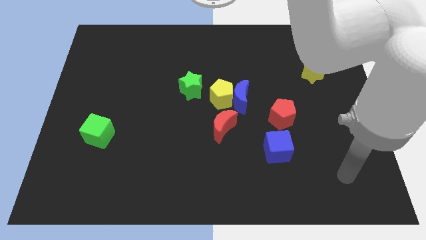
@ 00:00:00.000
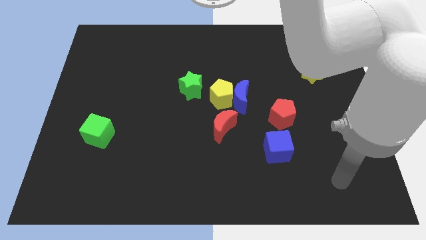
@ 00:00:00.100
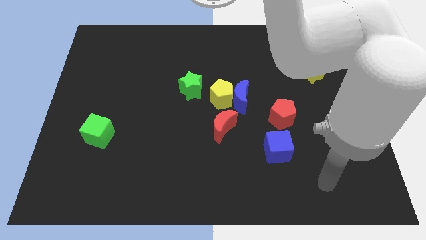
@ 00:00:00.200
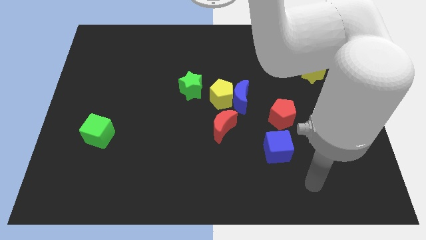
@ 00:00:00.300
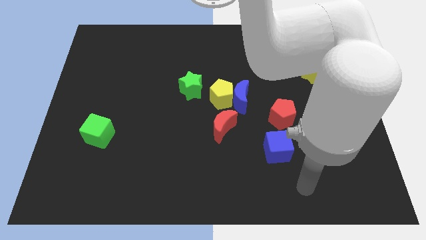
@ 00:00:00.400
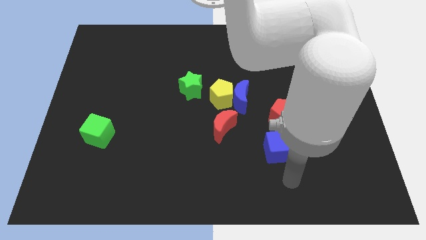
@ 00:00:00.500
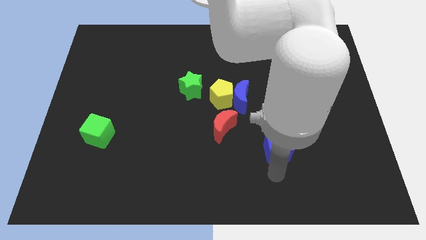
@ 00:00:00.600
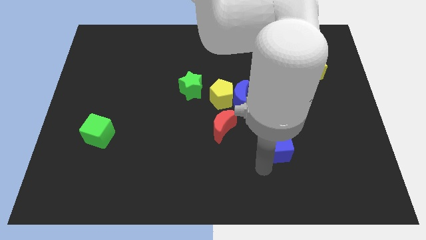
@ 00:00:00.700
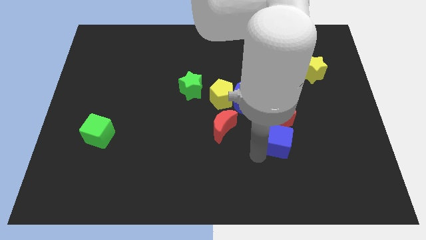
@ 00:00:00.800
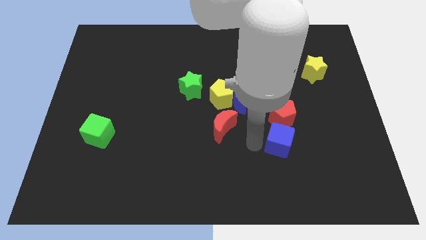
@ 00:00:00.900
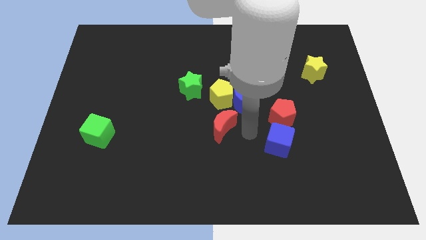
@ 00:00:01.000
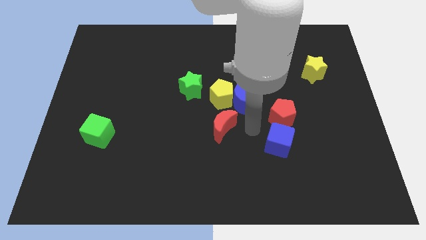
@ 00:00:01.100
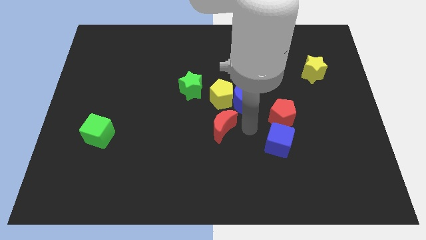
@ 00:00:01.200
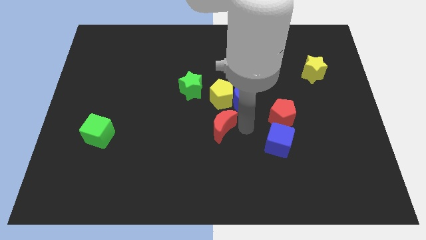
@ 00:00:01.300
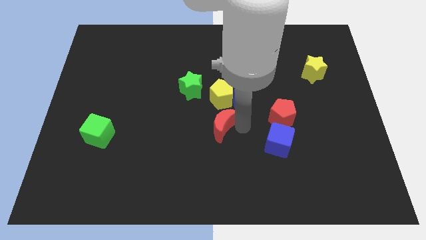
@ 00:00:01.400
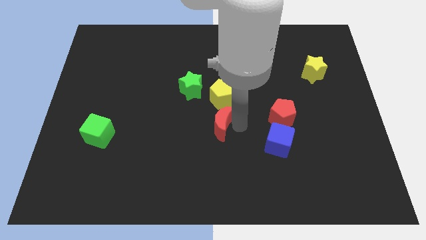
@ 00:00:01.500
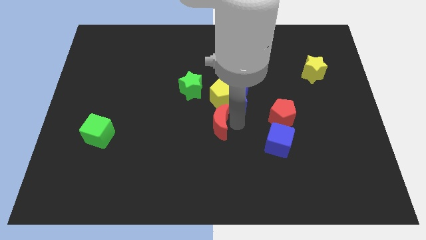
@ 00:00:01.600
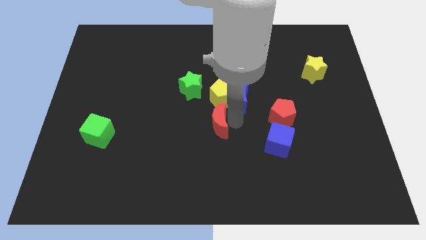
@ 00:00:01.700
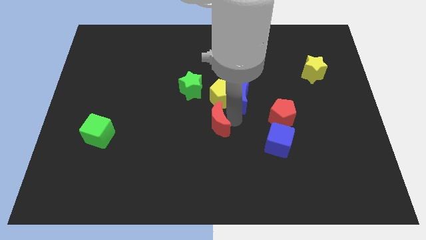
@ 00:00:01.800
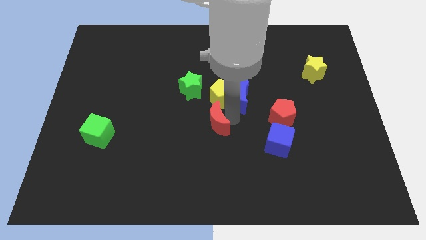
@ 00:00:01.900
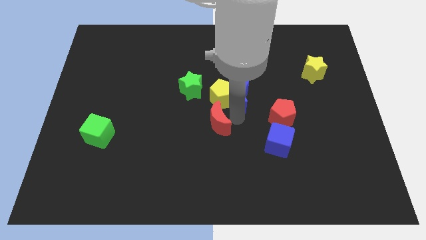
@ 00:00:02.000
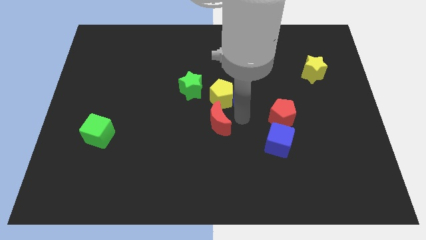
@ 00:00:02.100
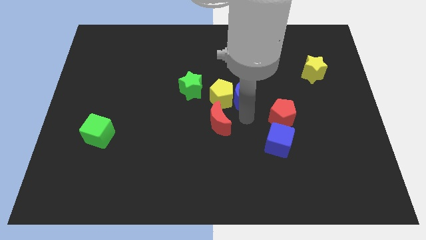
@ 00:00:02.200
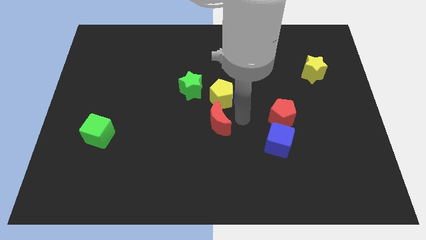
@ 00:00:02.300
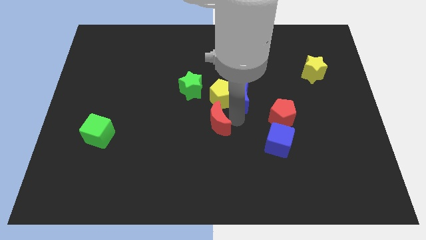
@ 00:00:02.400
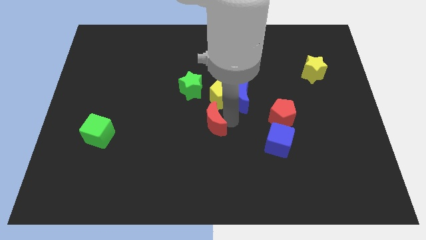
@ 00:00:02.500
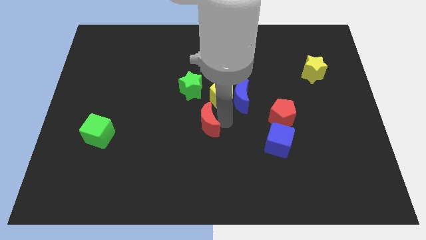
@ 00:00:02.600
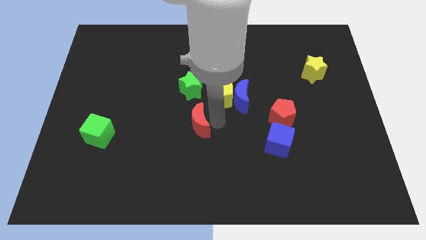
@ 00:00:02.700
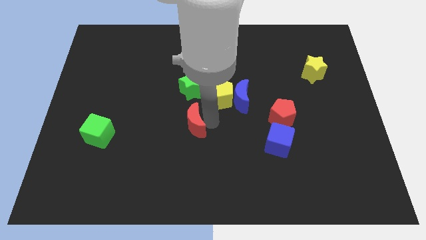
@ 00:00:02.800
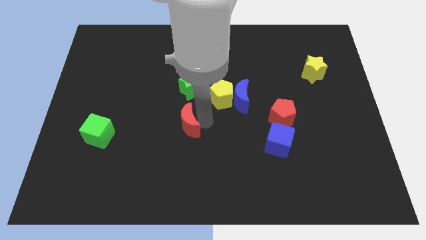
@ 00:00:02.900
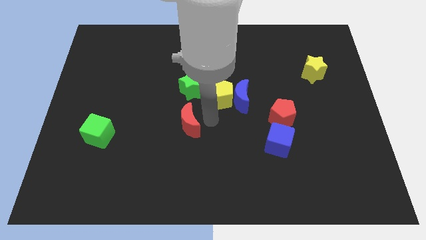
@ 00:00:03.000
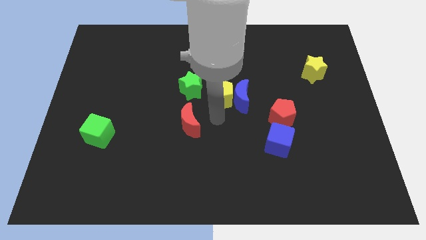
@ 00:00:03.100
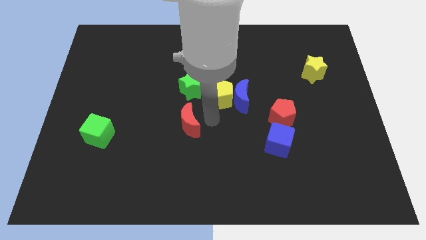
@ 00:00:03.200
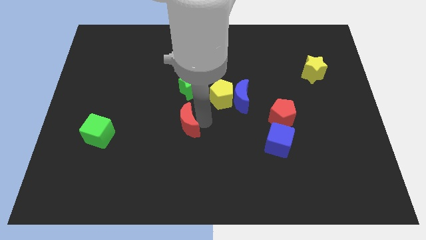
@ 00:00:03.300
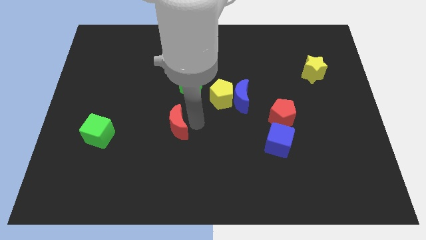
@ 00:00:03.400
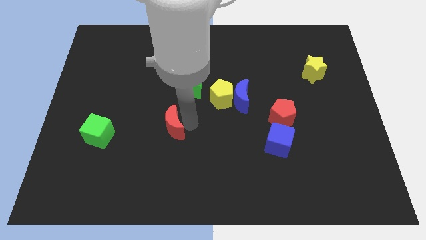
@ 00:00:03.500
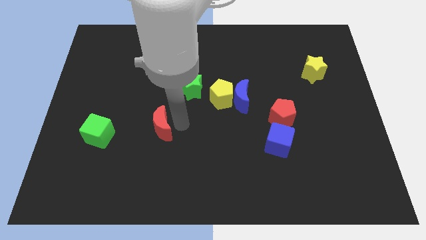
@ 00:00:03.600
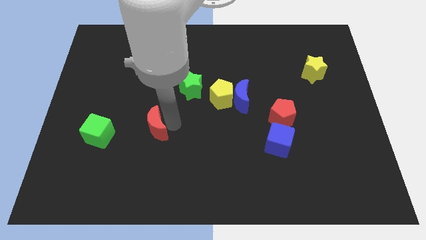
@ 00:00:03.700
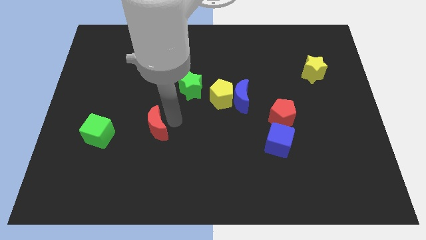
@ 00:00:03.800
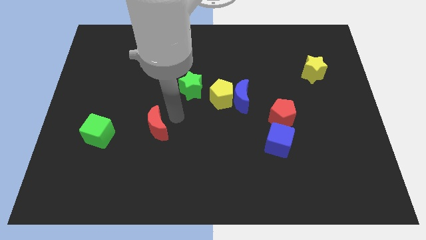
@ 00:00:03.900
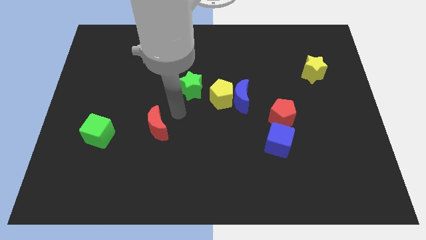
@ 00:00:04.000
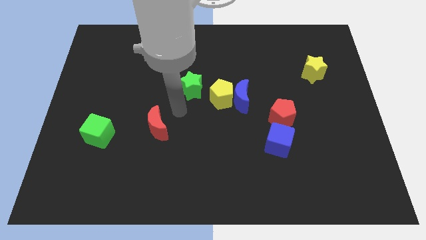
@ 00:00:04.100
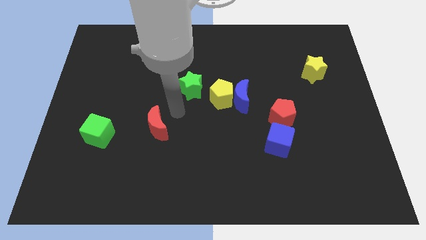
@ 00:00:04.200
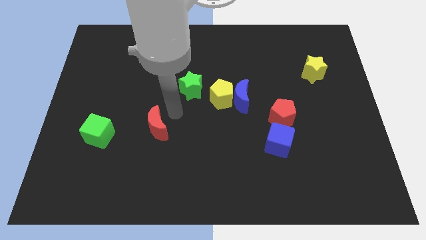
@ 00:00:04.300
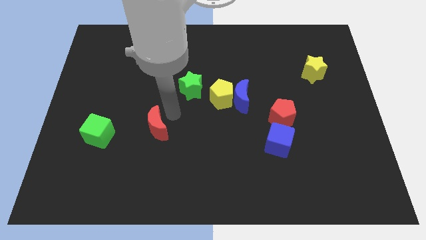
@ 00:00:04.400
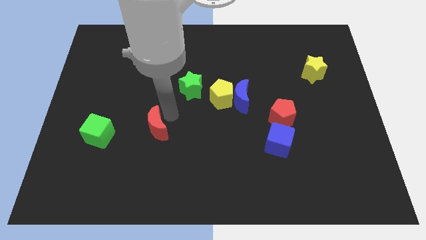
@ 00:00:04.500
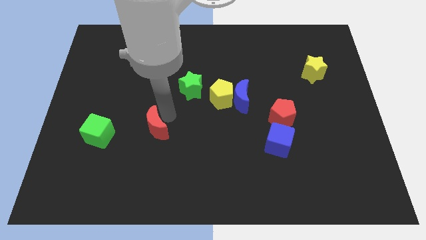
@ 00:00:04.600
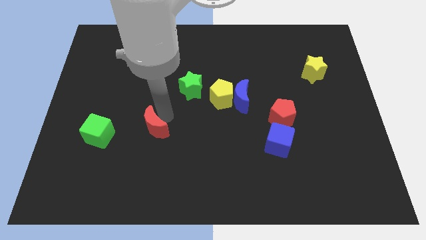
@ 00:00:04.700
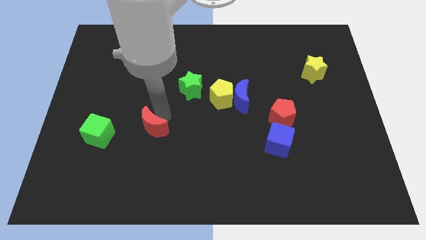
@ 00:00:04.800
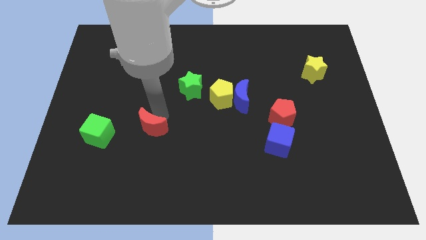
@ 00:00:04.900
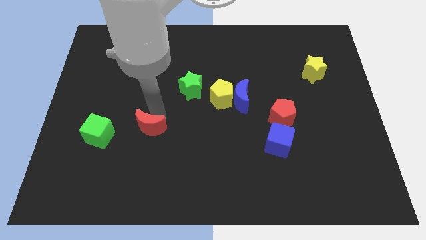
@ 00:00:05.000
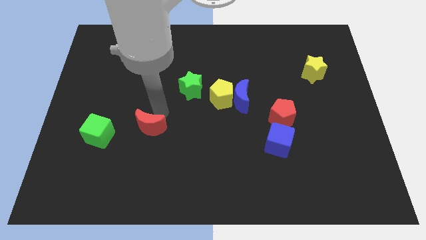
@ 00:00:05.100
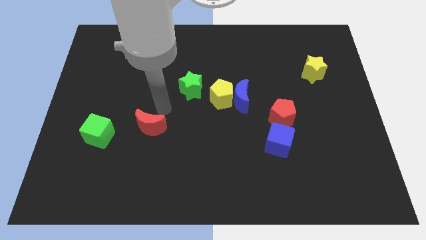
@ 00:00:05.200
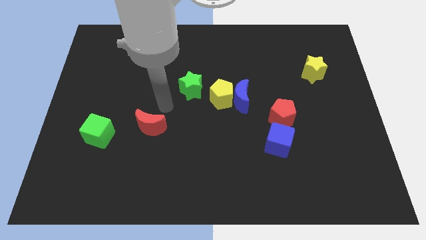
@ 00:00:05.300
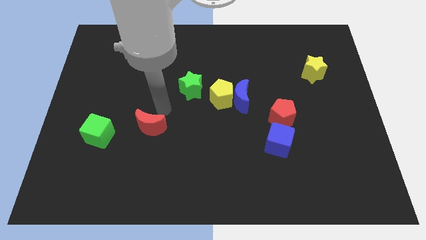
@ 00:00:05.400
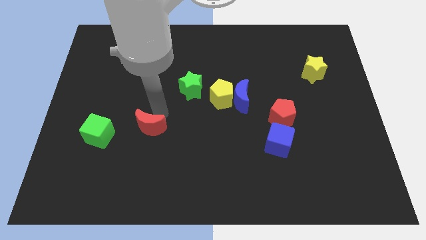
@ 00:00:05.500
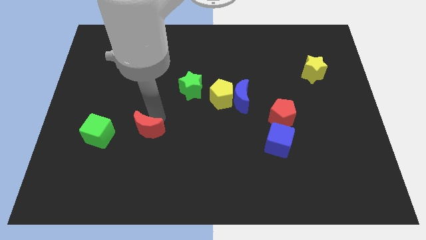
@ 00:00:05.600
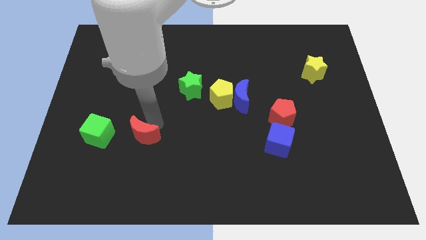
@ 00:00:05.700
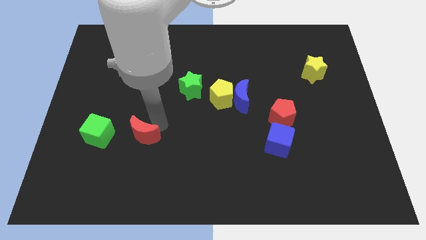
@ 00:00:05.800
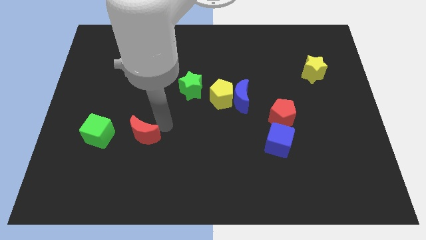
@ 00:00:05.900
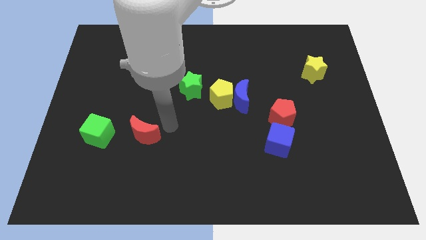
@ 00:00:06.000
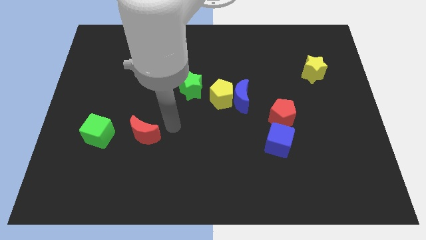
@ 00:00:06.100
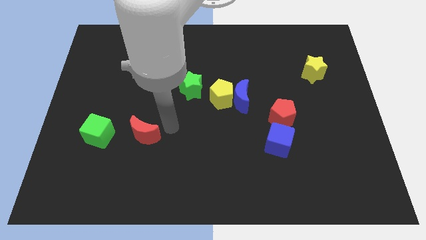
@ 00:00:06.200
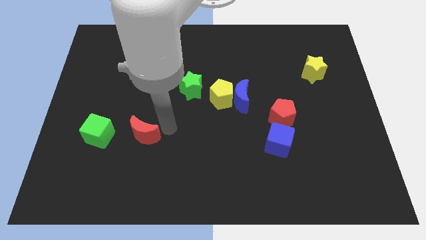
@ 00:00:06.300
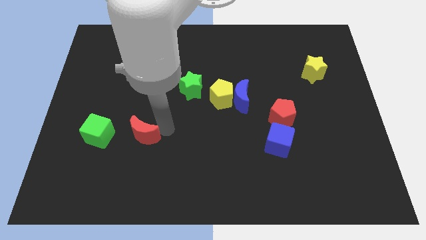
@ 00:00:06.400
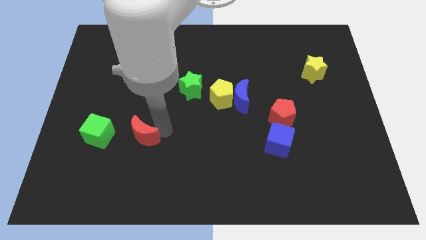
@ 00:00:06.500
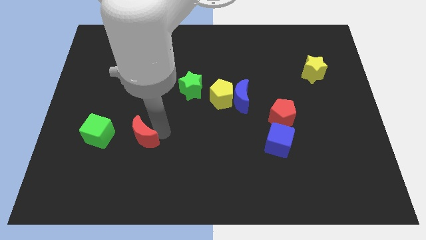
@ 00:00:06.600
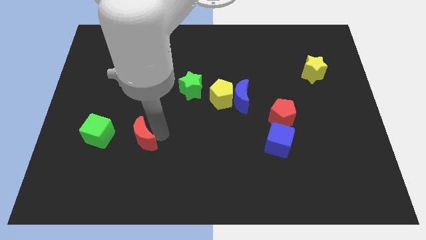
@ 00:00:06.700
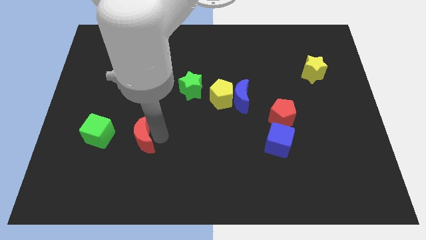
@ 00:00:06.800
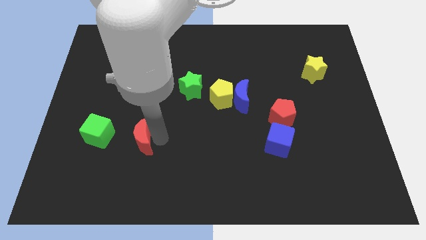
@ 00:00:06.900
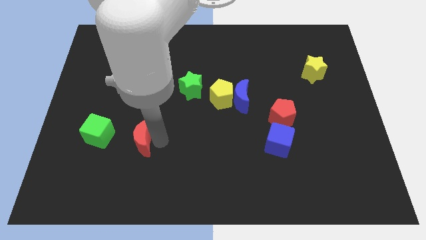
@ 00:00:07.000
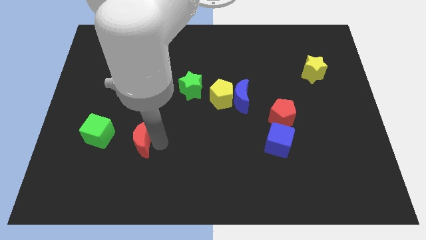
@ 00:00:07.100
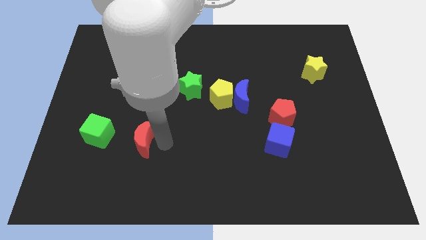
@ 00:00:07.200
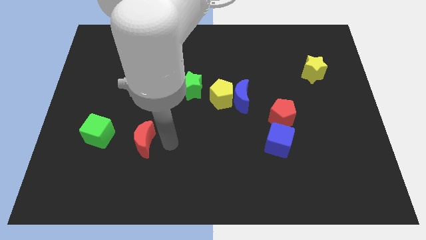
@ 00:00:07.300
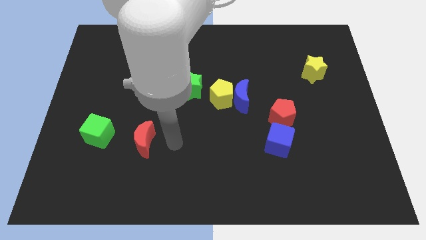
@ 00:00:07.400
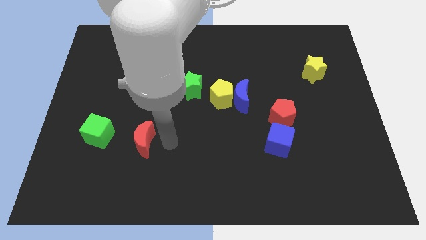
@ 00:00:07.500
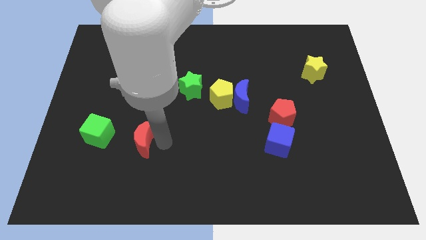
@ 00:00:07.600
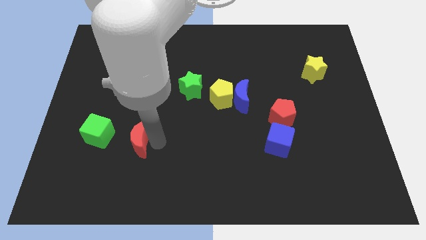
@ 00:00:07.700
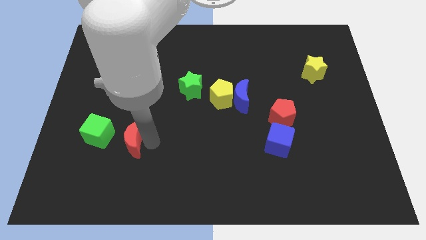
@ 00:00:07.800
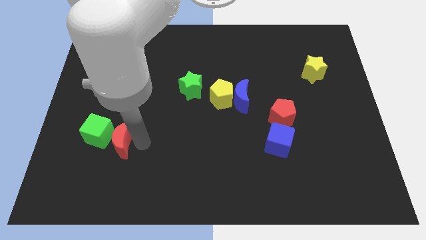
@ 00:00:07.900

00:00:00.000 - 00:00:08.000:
put the red moon close to the green cube
